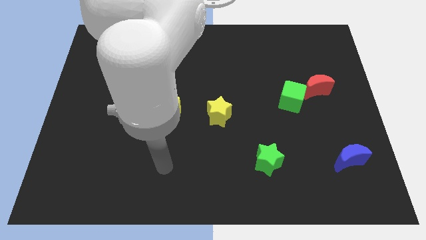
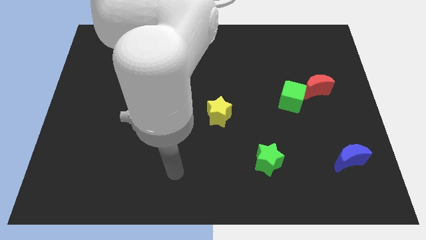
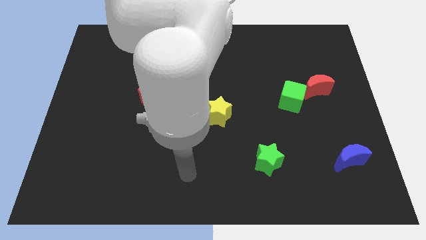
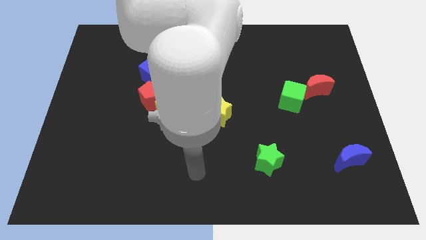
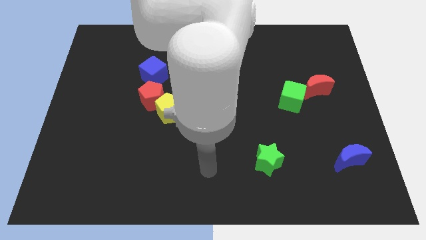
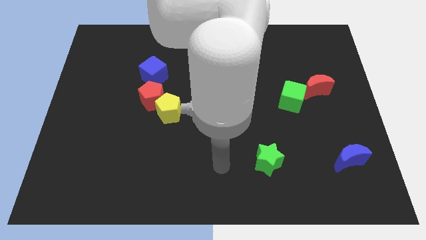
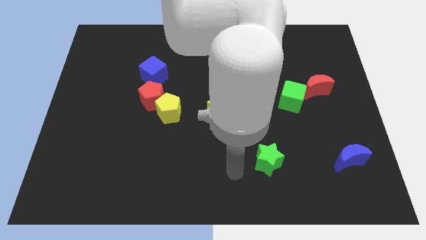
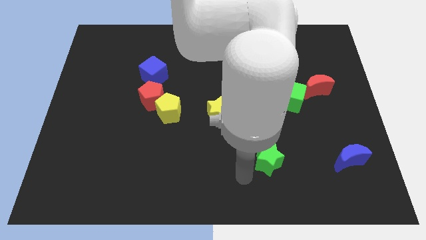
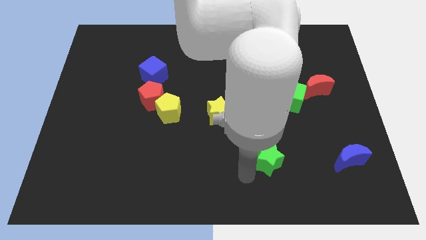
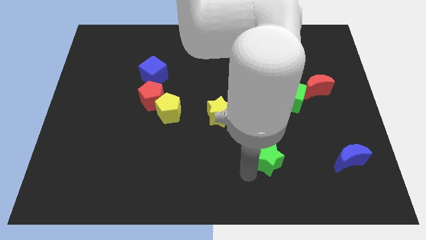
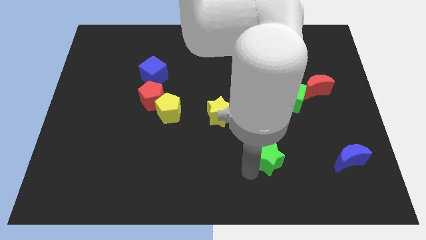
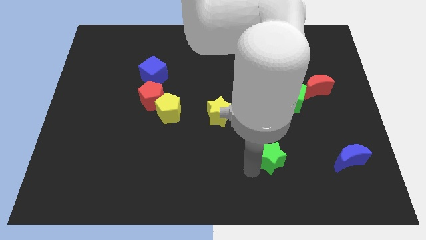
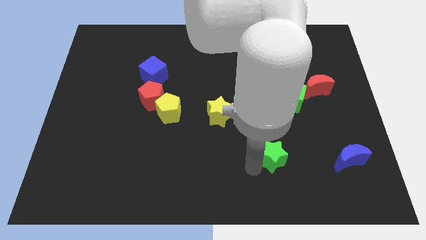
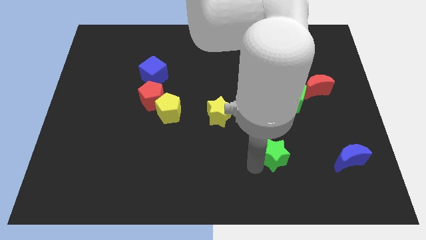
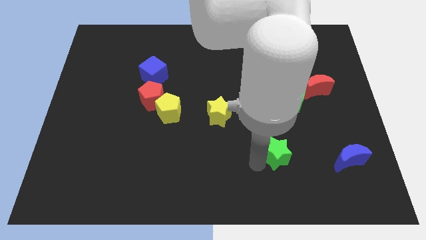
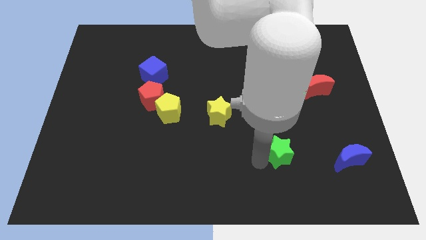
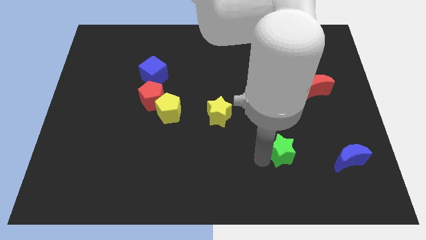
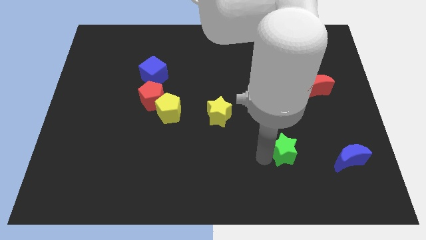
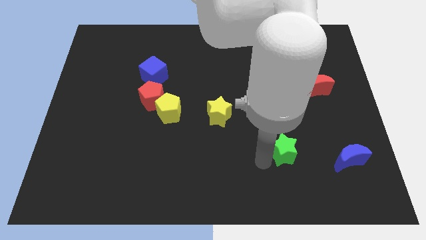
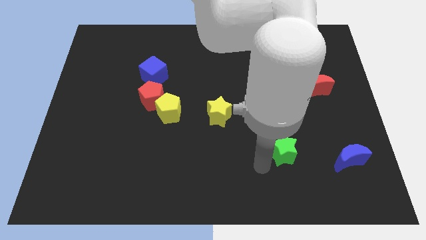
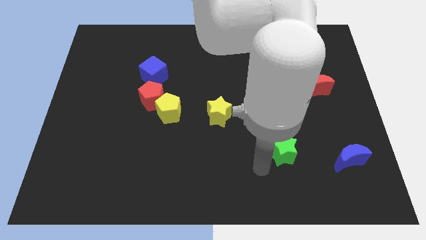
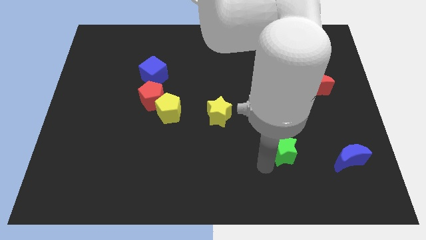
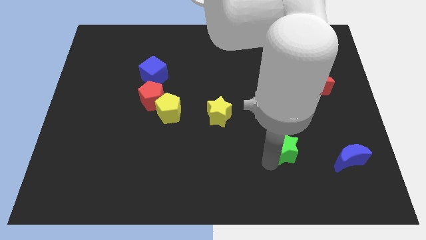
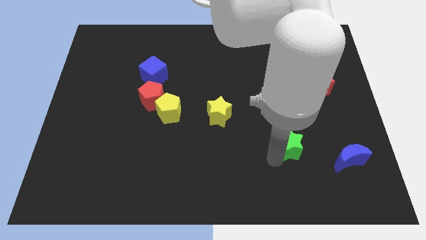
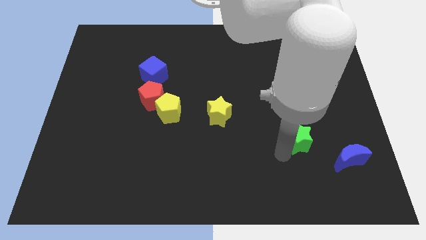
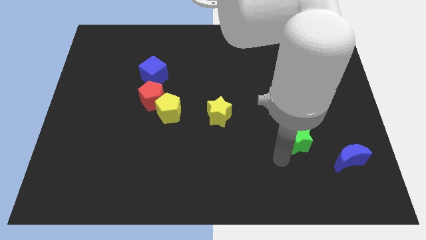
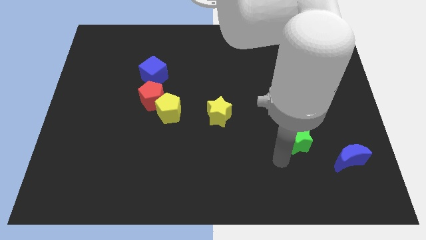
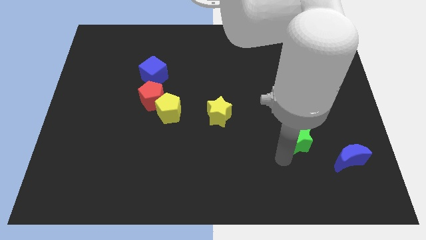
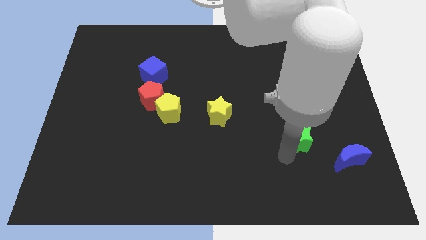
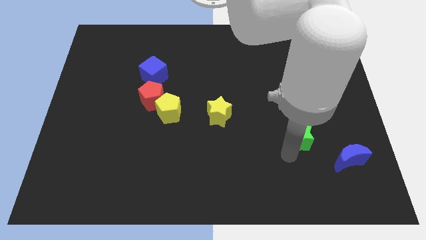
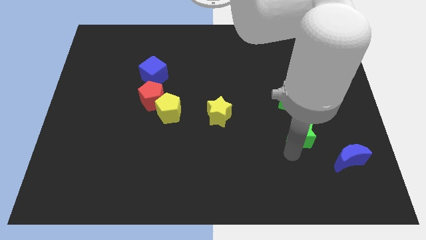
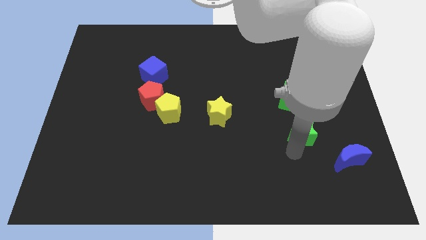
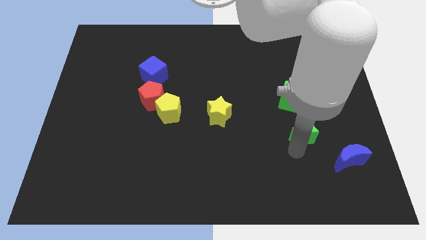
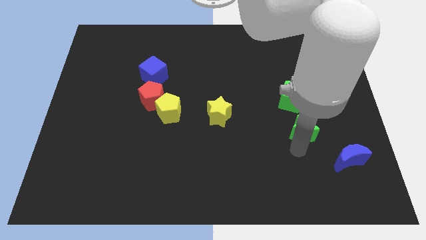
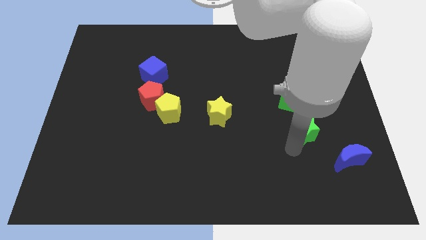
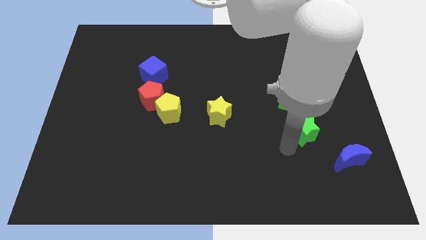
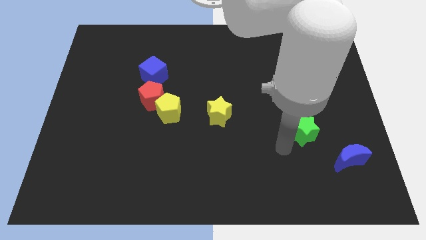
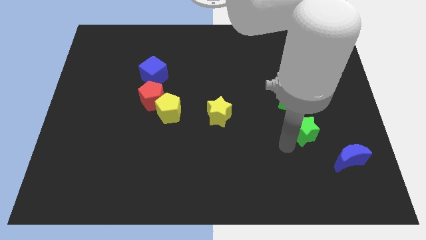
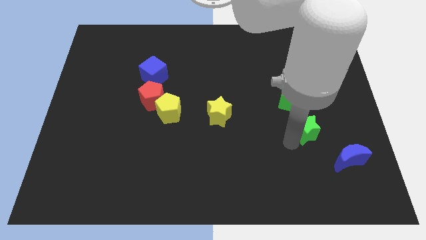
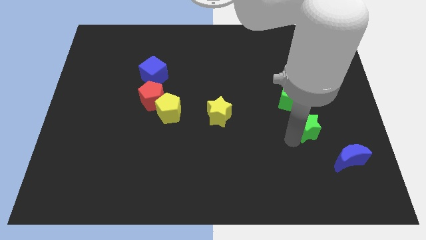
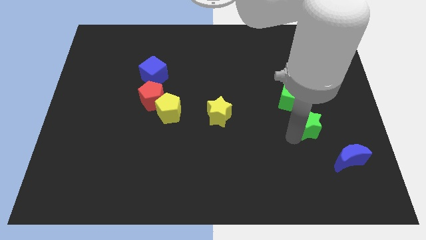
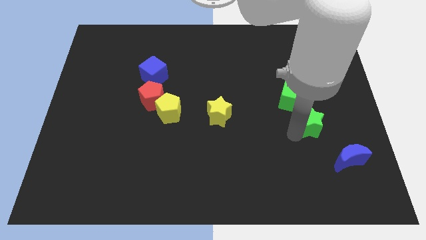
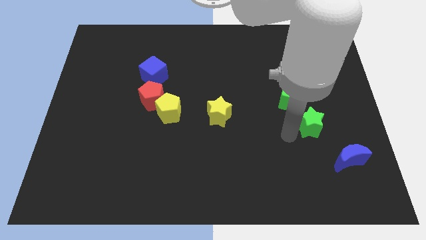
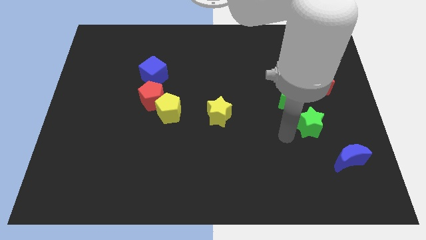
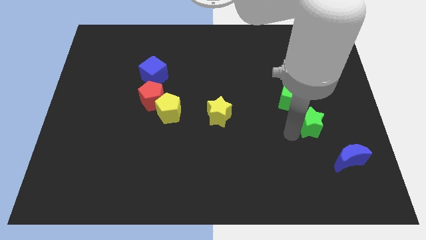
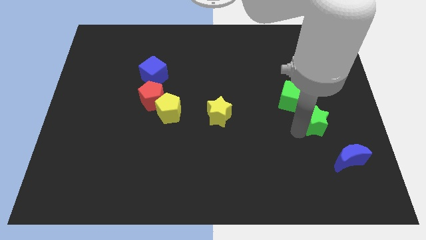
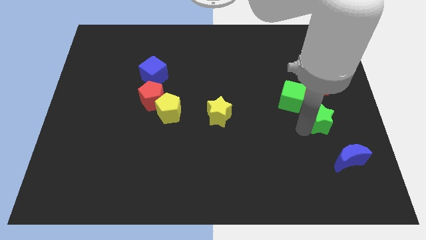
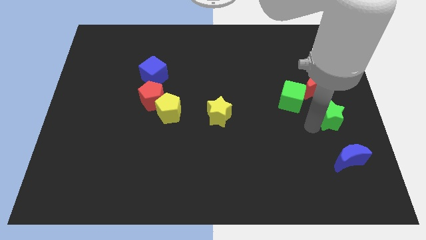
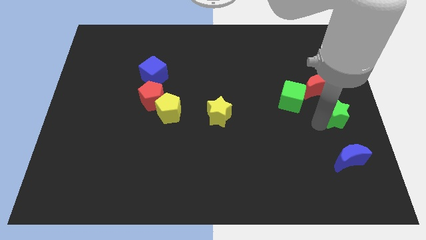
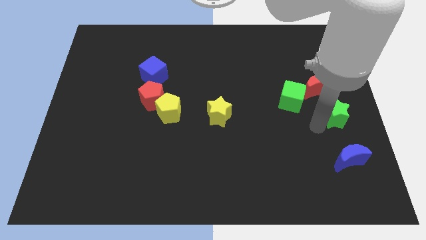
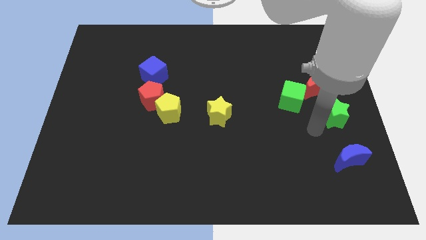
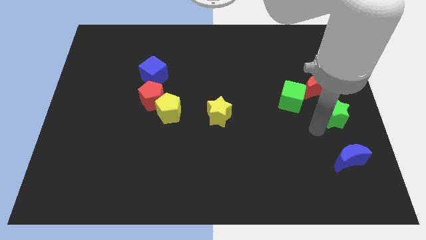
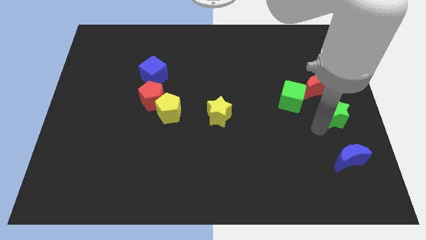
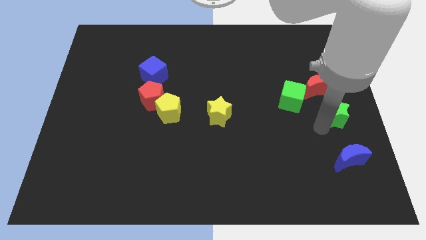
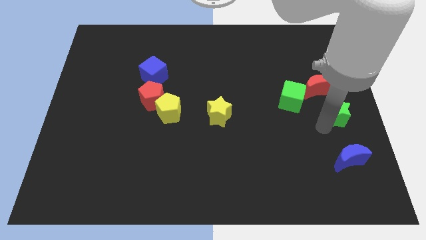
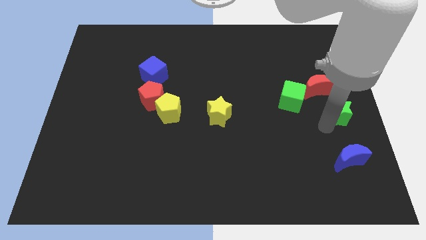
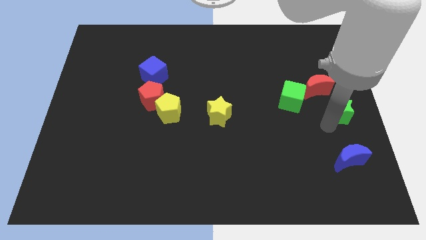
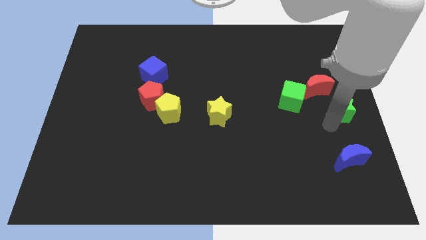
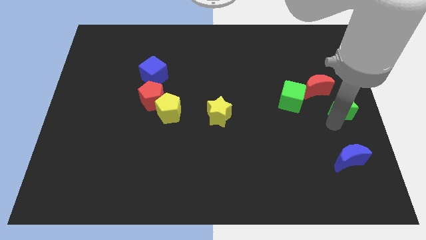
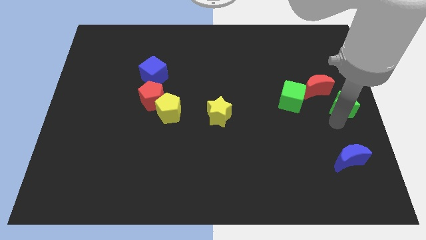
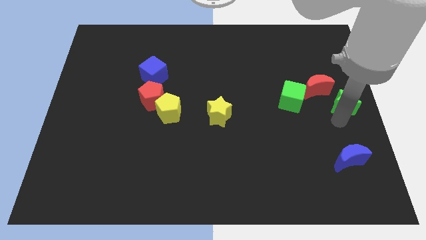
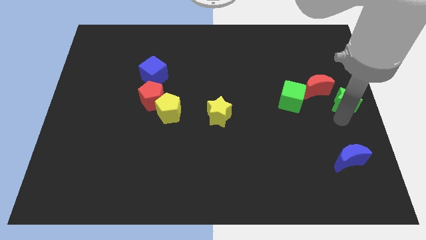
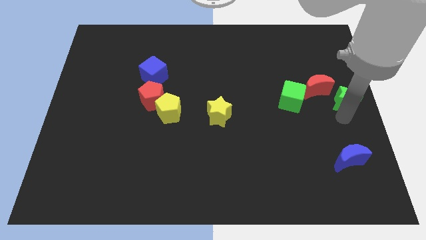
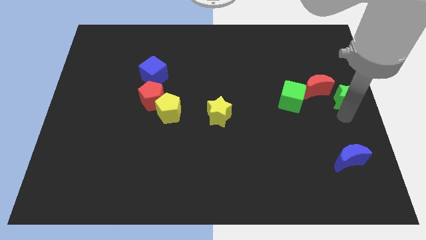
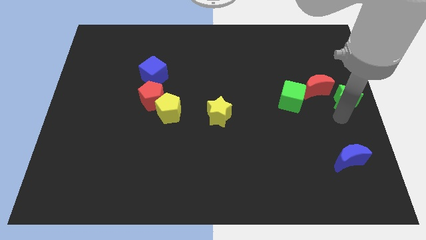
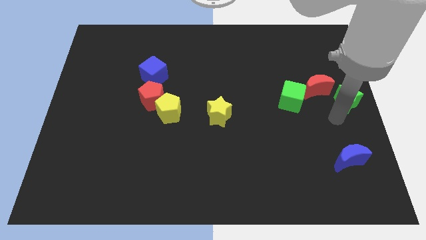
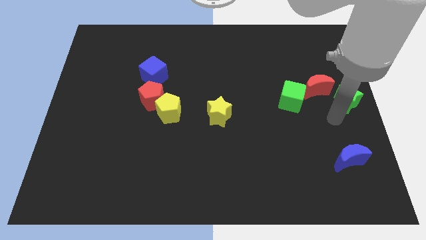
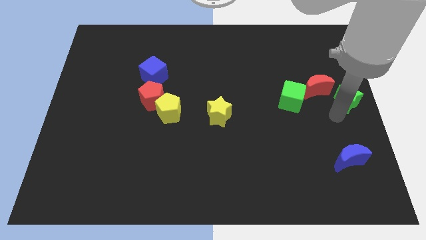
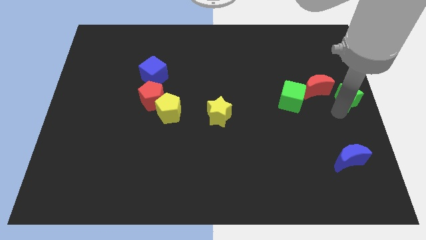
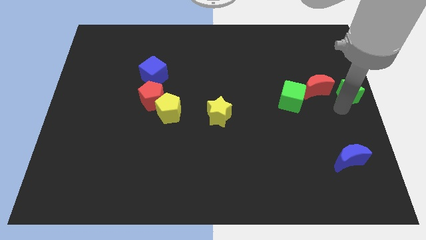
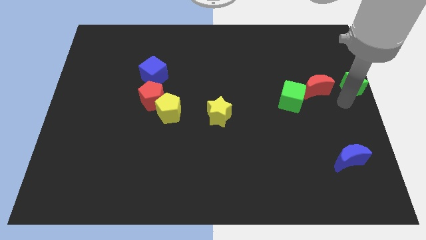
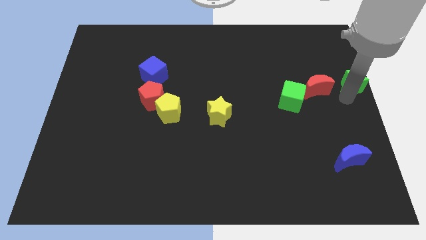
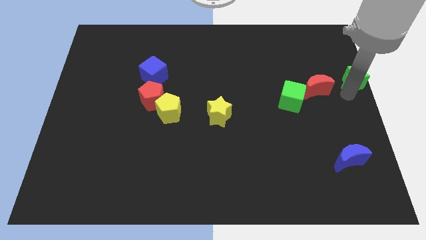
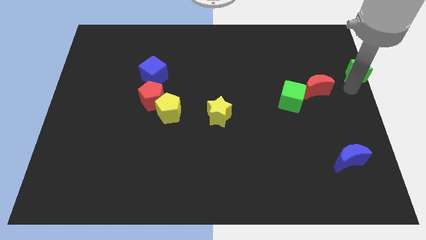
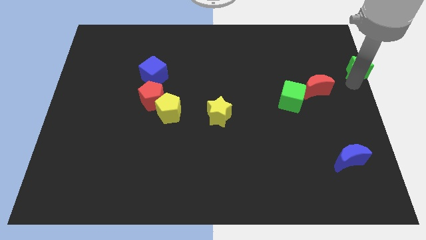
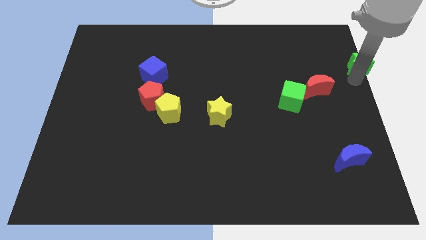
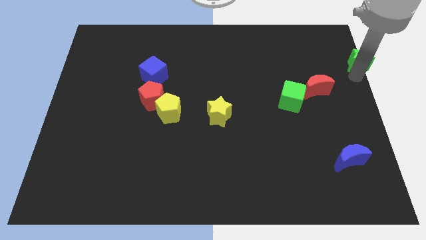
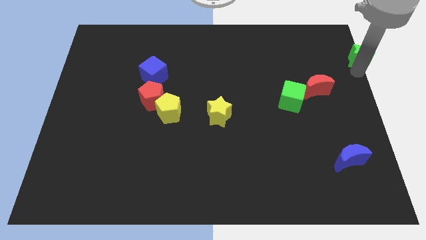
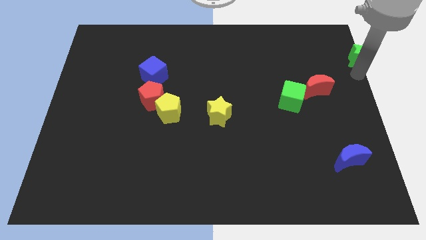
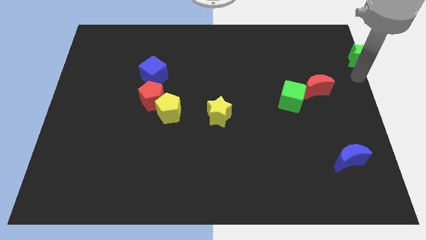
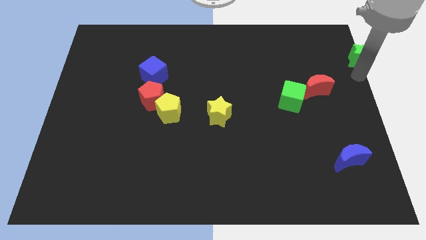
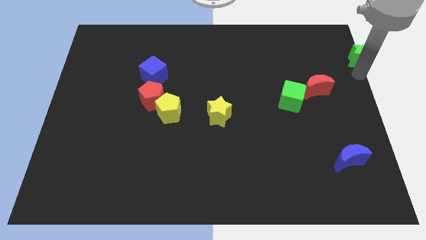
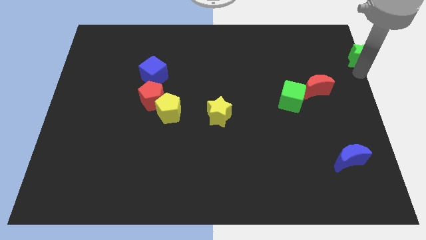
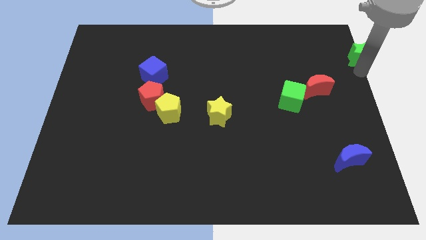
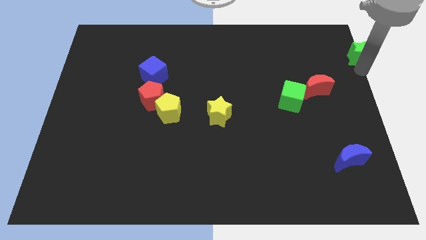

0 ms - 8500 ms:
move the green star to the top right of the board
